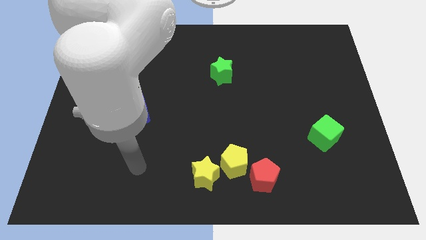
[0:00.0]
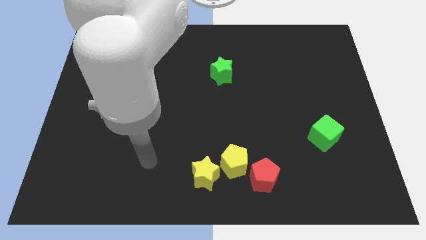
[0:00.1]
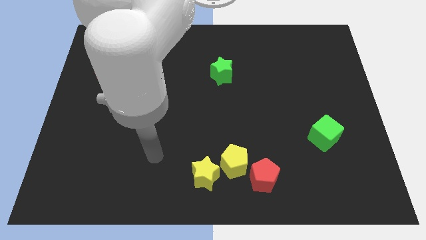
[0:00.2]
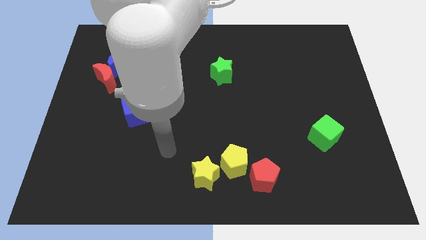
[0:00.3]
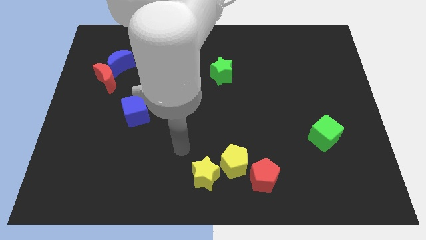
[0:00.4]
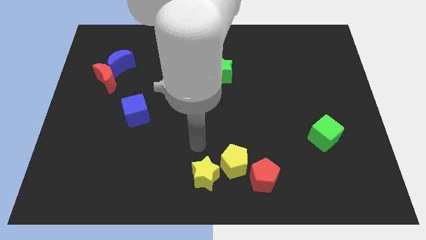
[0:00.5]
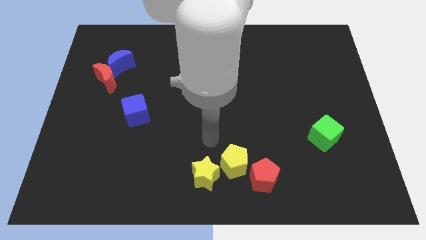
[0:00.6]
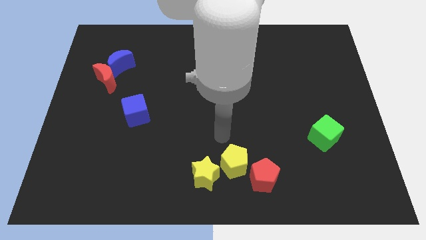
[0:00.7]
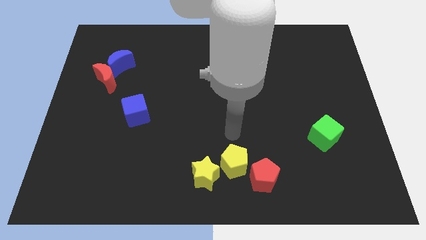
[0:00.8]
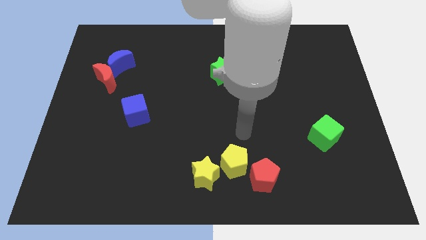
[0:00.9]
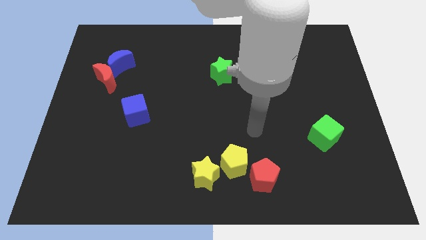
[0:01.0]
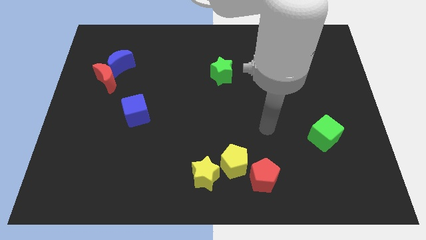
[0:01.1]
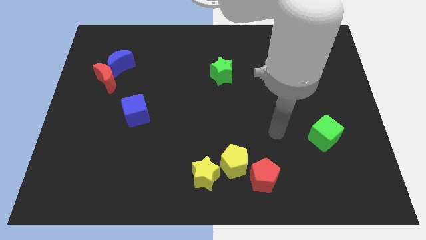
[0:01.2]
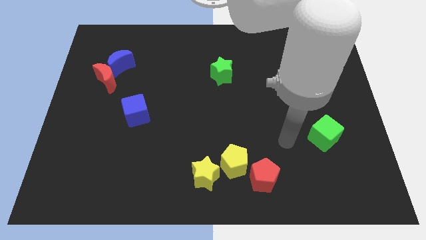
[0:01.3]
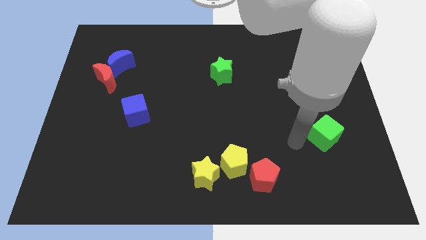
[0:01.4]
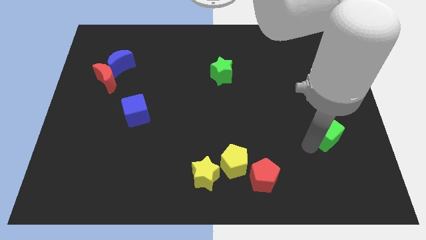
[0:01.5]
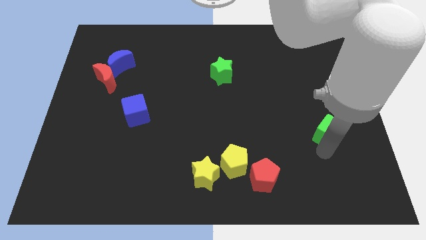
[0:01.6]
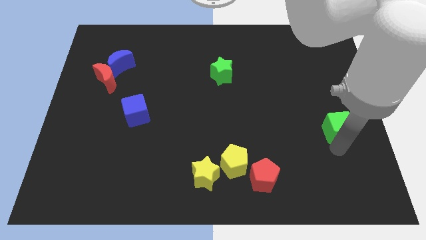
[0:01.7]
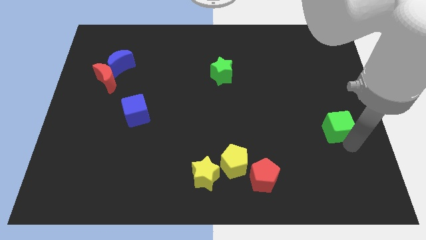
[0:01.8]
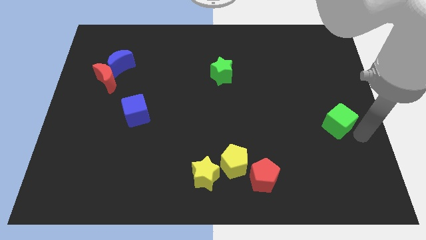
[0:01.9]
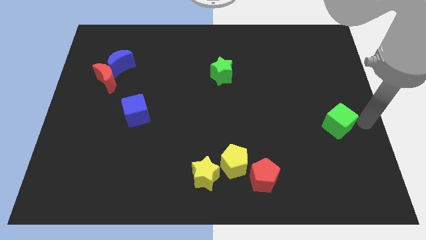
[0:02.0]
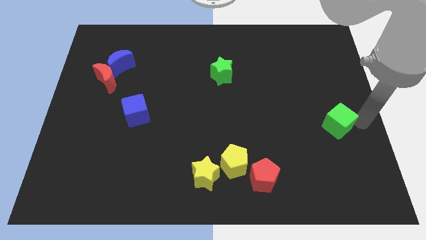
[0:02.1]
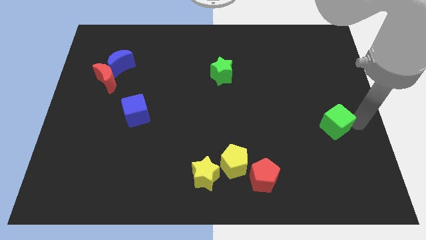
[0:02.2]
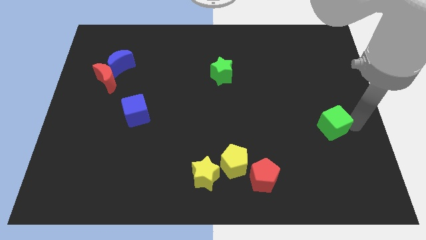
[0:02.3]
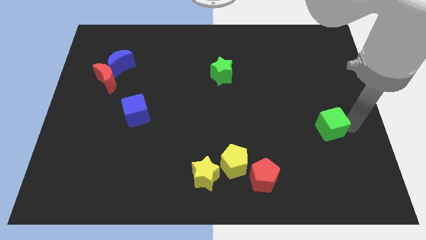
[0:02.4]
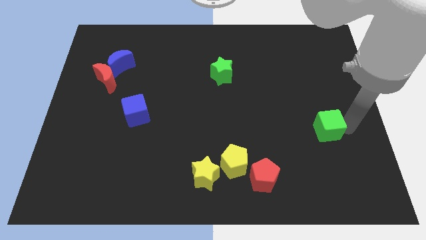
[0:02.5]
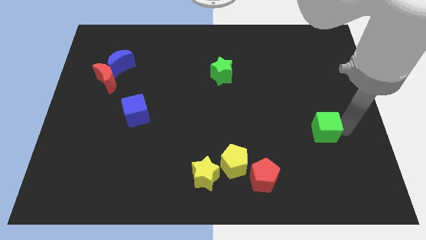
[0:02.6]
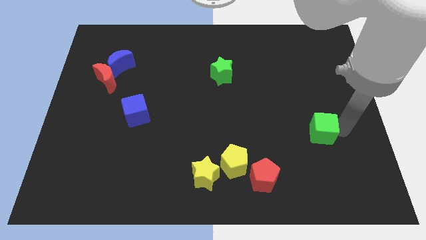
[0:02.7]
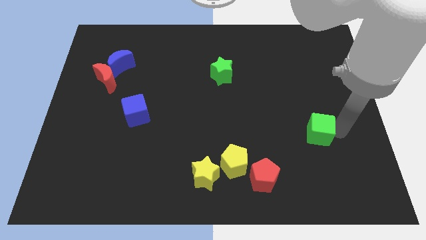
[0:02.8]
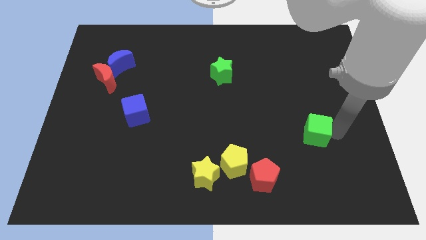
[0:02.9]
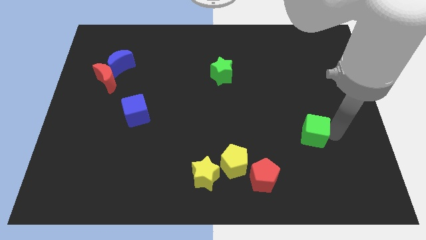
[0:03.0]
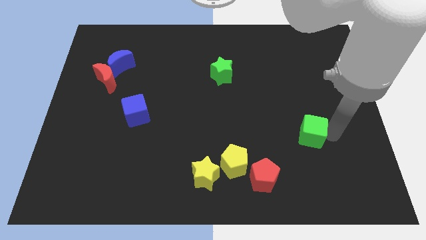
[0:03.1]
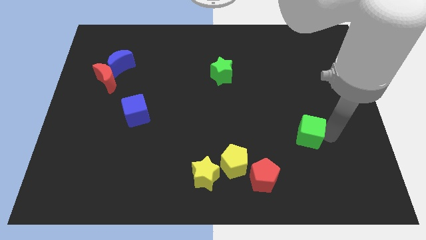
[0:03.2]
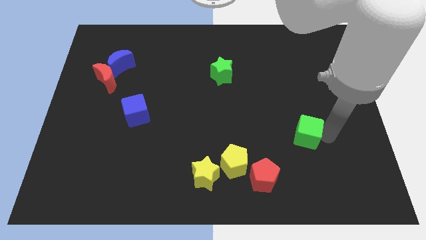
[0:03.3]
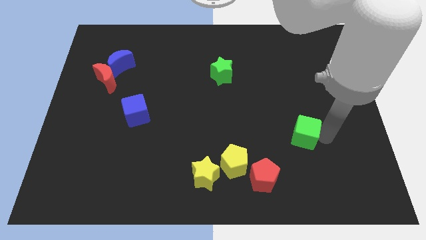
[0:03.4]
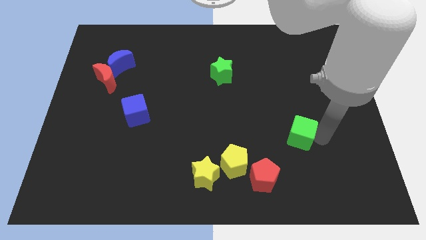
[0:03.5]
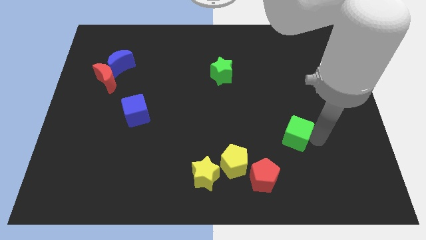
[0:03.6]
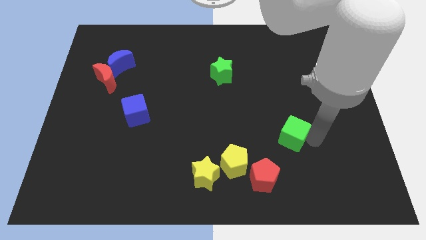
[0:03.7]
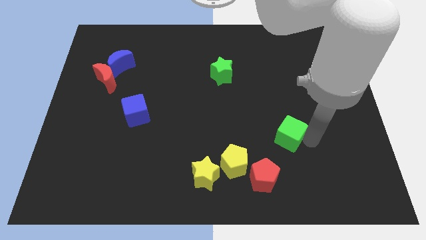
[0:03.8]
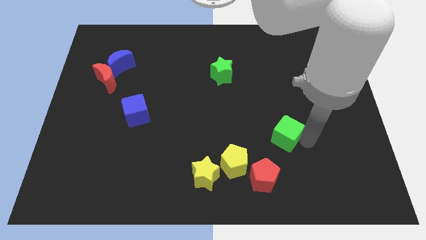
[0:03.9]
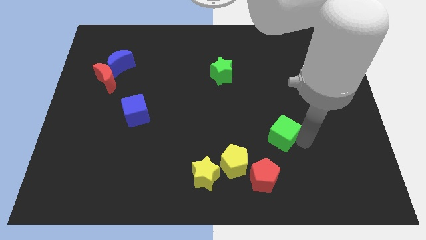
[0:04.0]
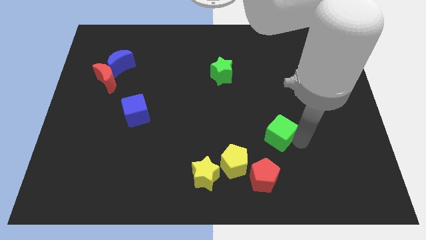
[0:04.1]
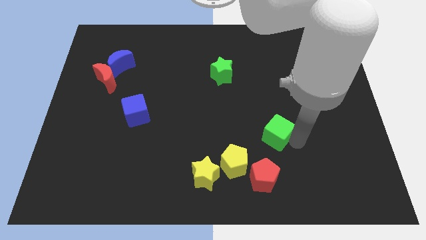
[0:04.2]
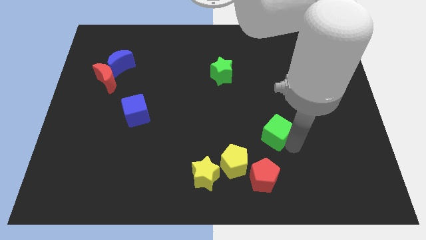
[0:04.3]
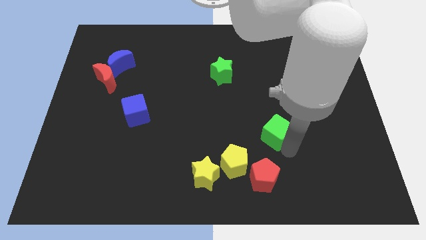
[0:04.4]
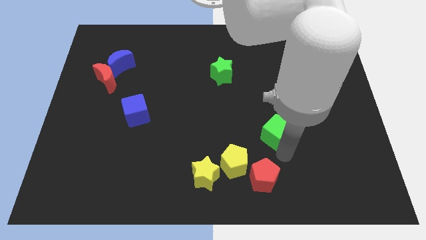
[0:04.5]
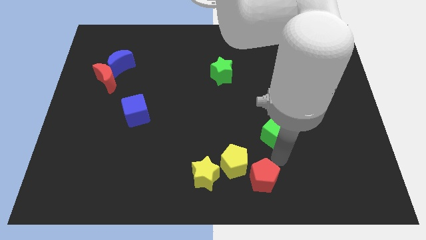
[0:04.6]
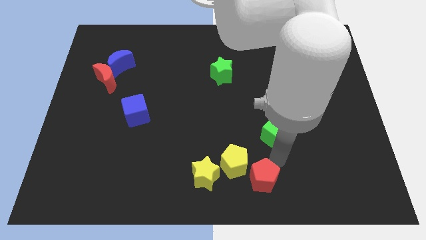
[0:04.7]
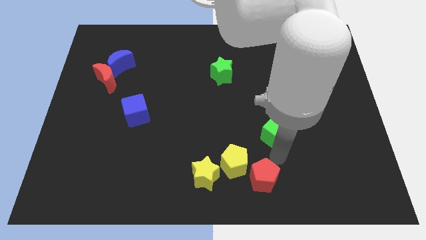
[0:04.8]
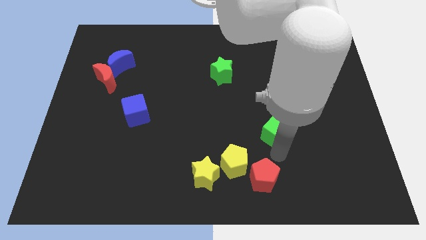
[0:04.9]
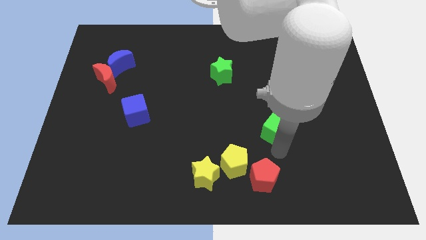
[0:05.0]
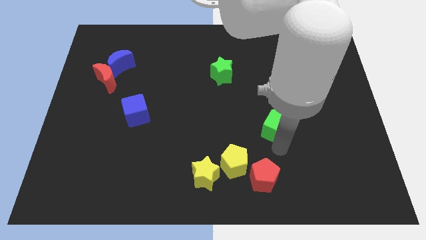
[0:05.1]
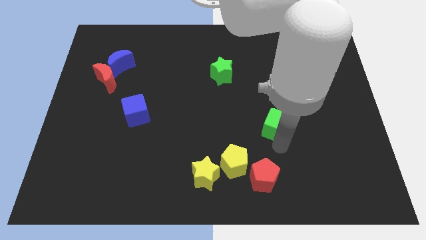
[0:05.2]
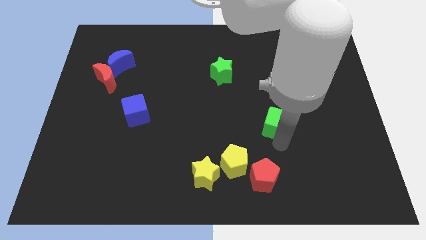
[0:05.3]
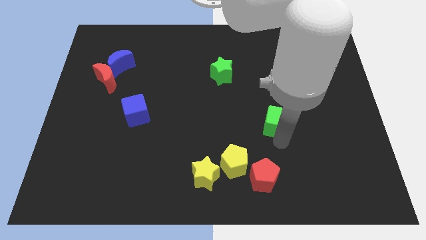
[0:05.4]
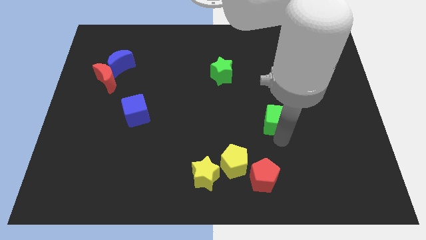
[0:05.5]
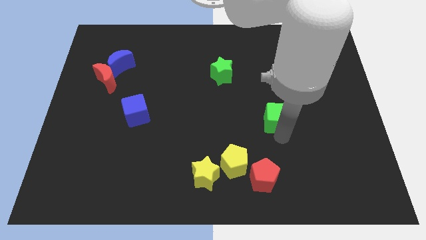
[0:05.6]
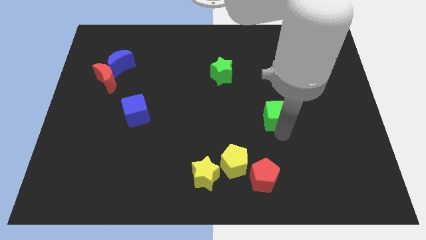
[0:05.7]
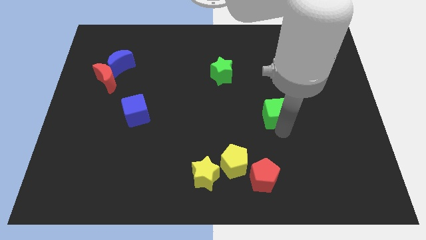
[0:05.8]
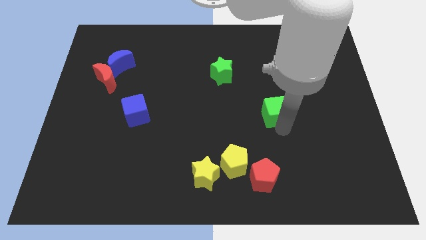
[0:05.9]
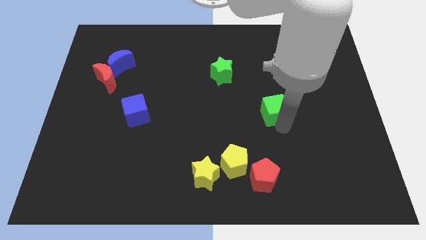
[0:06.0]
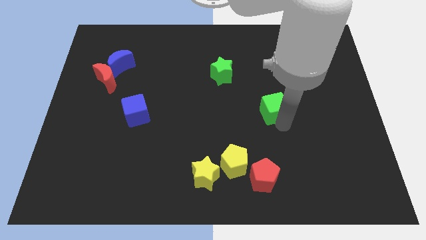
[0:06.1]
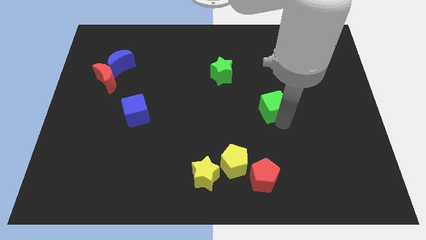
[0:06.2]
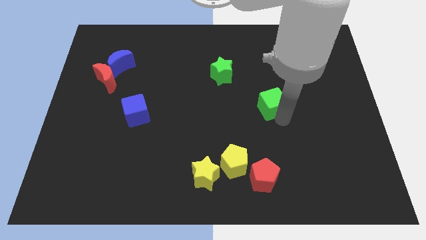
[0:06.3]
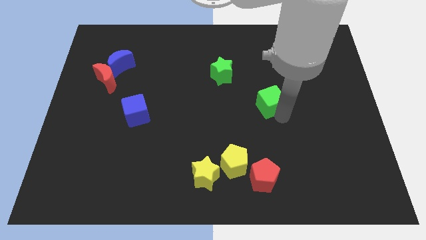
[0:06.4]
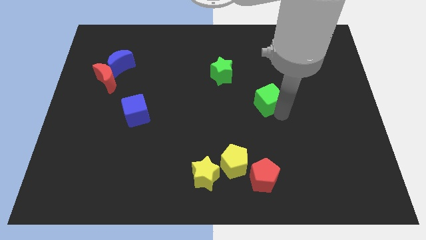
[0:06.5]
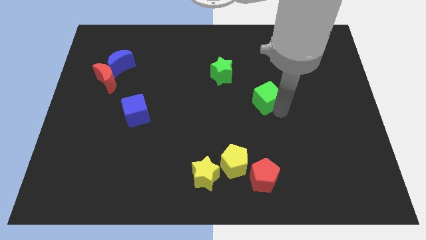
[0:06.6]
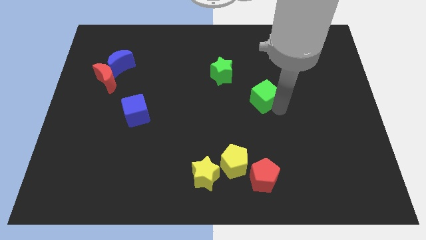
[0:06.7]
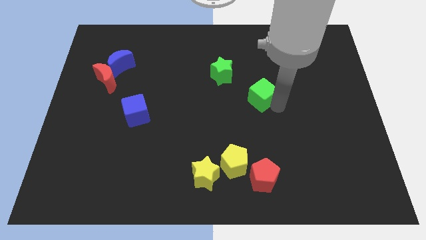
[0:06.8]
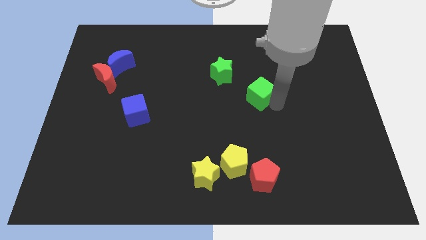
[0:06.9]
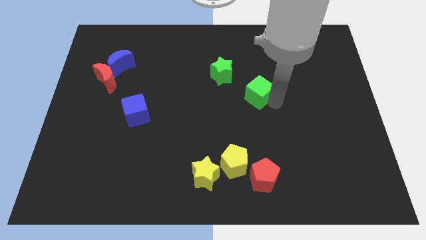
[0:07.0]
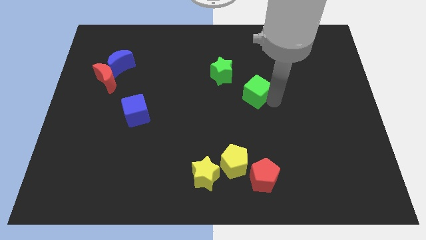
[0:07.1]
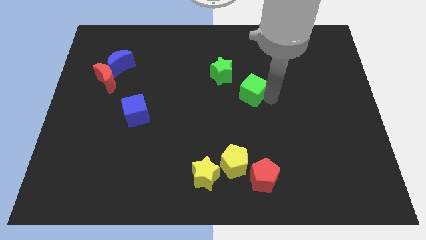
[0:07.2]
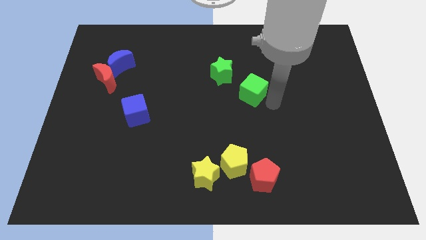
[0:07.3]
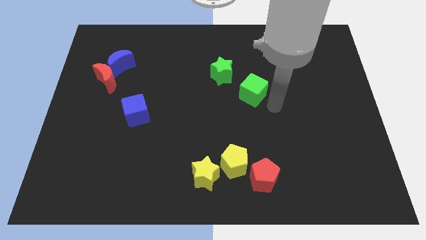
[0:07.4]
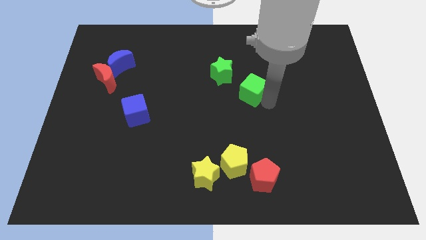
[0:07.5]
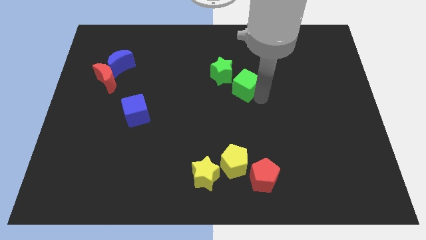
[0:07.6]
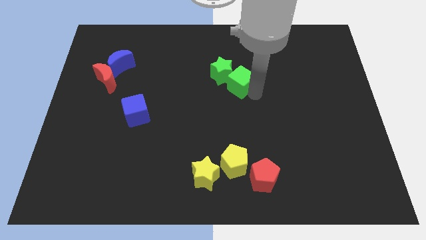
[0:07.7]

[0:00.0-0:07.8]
move the green cube towards the green star
